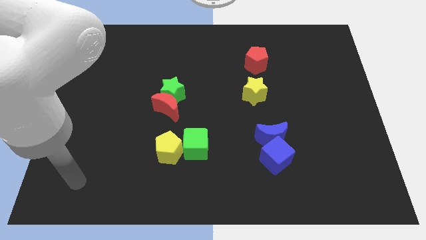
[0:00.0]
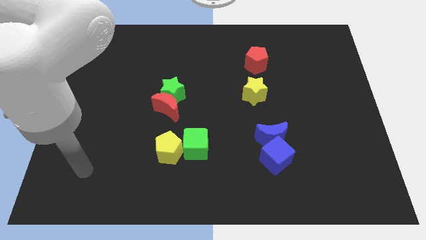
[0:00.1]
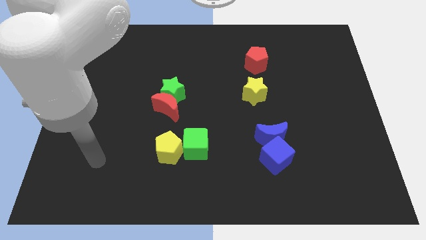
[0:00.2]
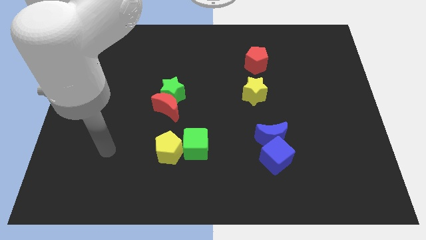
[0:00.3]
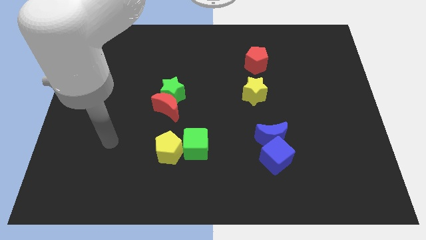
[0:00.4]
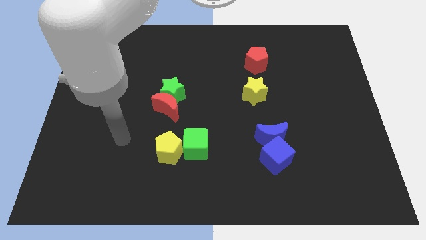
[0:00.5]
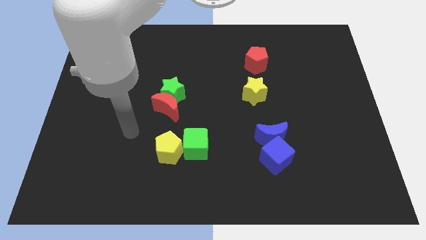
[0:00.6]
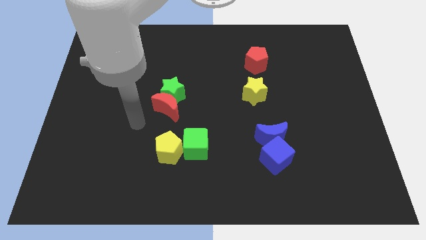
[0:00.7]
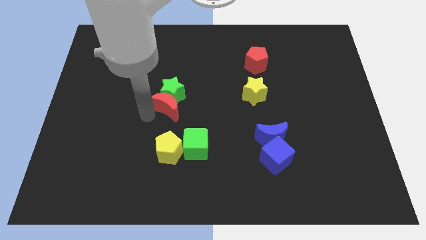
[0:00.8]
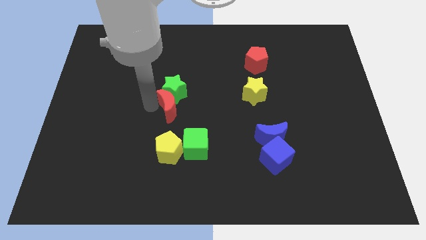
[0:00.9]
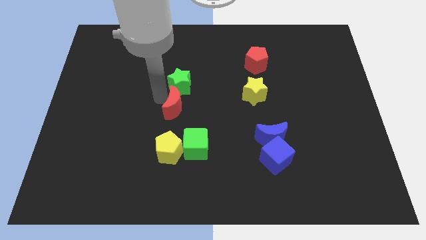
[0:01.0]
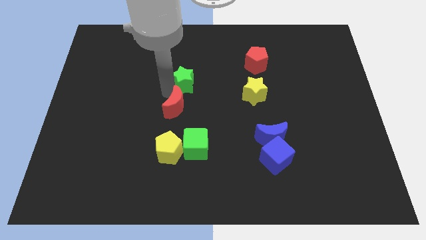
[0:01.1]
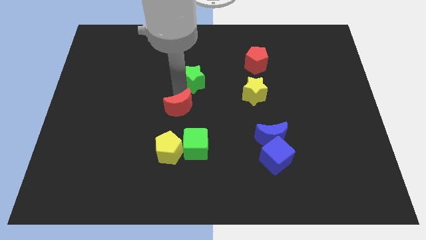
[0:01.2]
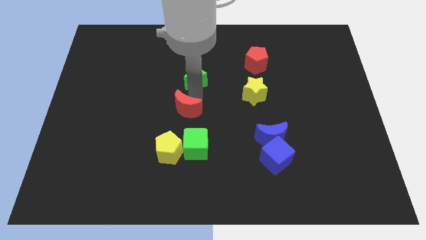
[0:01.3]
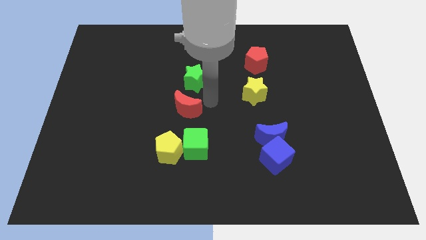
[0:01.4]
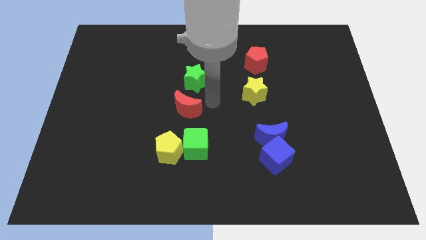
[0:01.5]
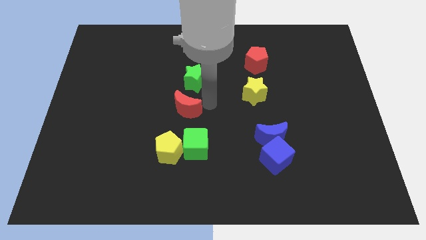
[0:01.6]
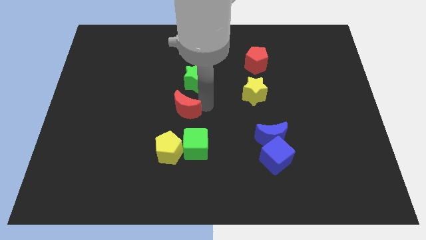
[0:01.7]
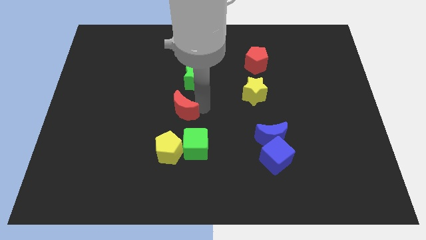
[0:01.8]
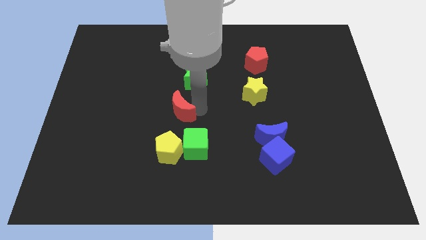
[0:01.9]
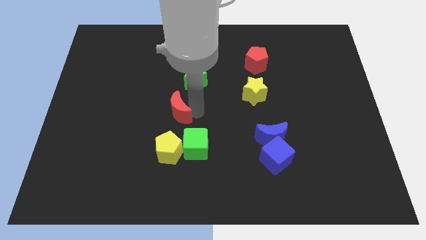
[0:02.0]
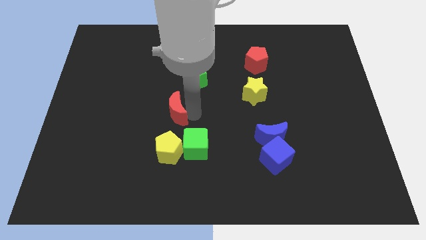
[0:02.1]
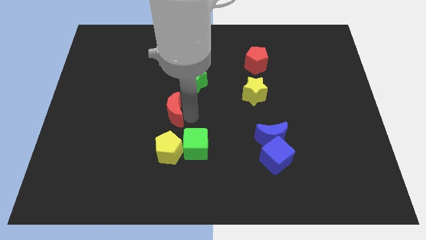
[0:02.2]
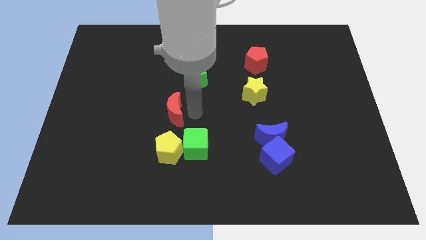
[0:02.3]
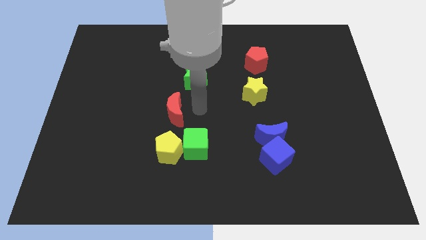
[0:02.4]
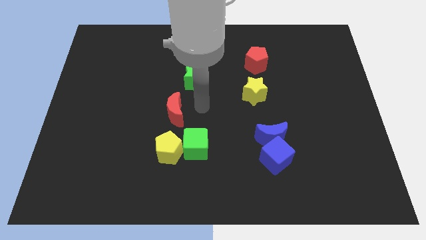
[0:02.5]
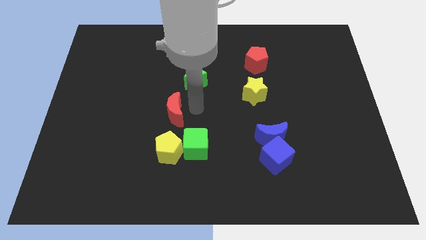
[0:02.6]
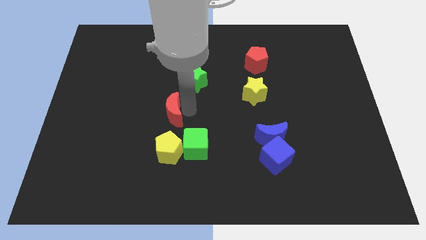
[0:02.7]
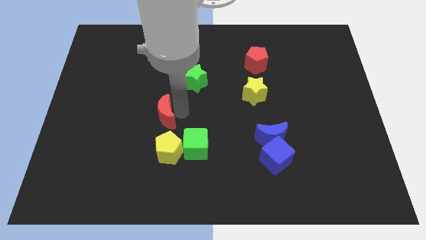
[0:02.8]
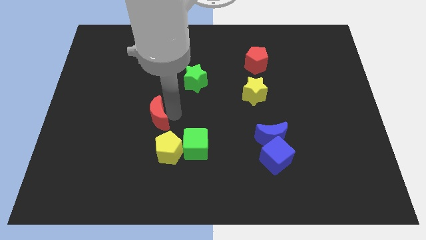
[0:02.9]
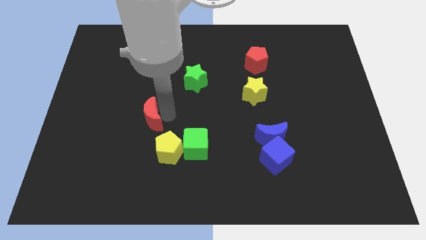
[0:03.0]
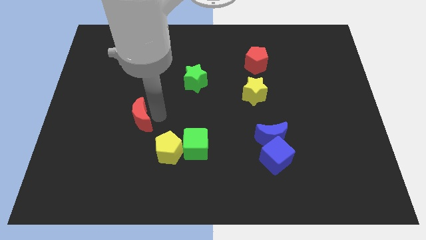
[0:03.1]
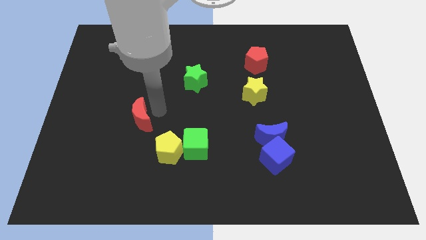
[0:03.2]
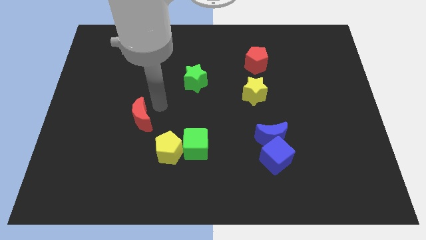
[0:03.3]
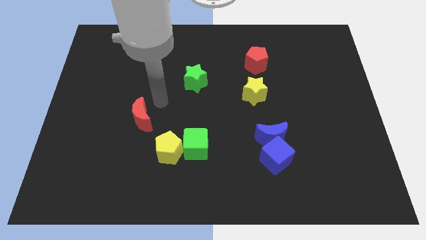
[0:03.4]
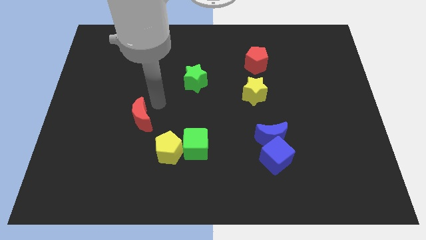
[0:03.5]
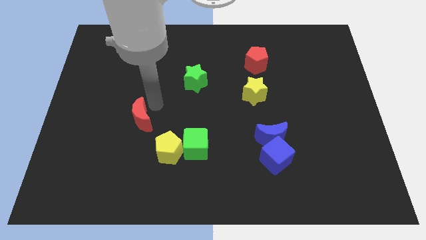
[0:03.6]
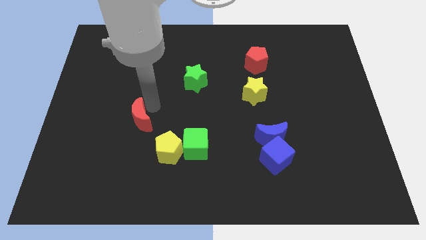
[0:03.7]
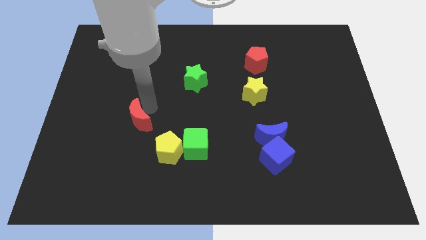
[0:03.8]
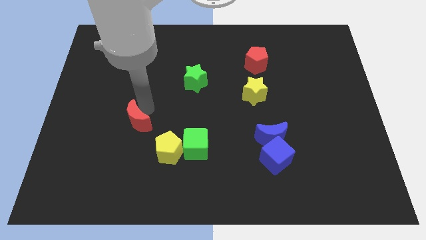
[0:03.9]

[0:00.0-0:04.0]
push the red moon down and to the left diagonally somewhat

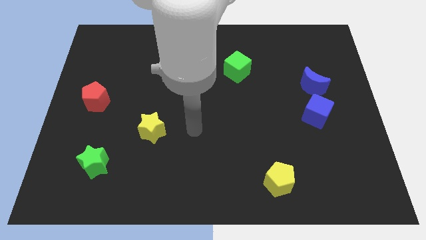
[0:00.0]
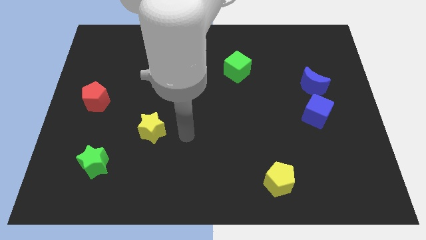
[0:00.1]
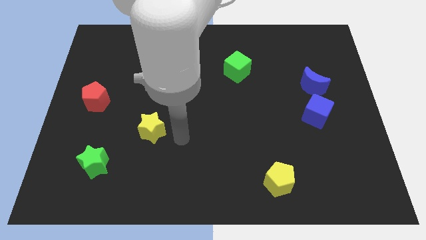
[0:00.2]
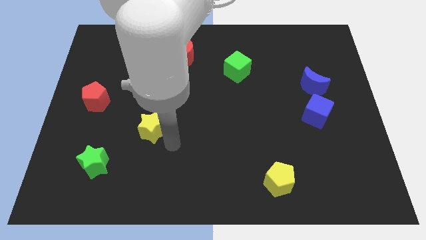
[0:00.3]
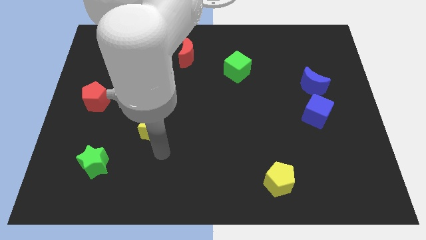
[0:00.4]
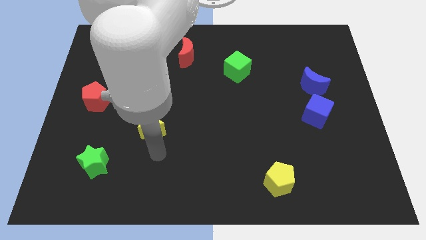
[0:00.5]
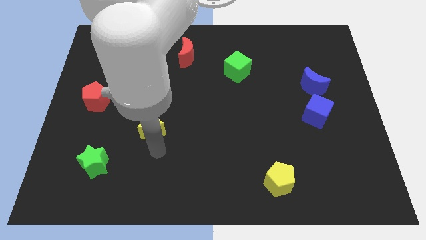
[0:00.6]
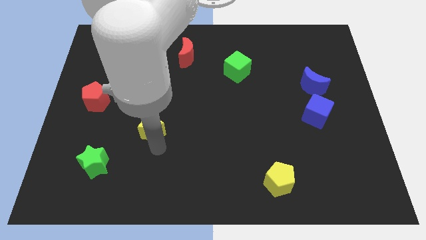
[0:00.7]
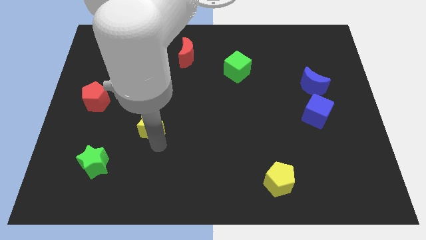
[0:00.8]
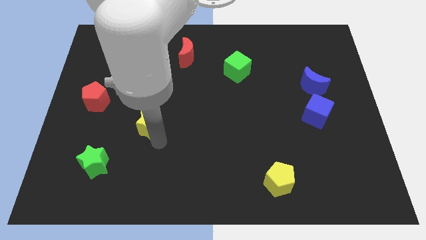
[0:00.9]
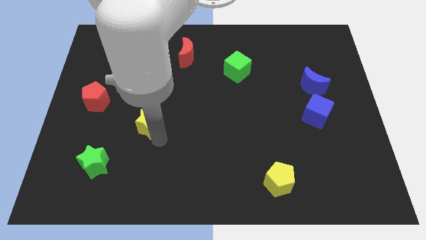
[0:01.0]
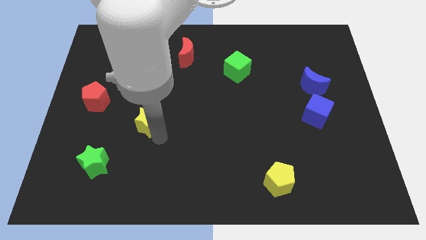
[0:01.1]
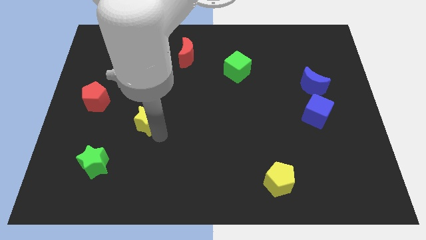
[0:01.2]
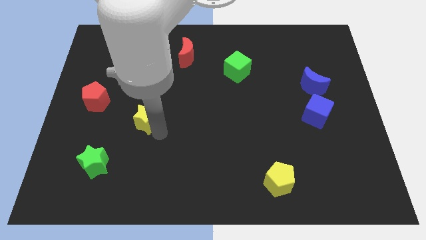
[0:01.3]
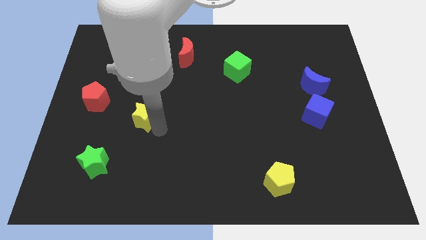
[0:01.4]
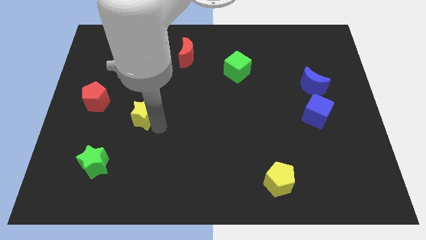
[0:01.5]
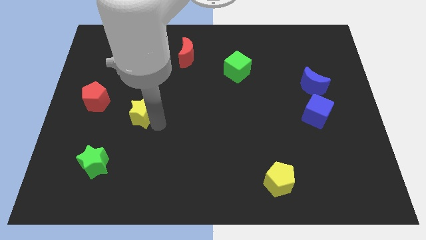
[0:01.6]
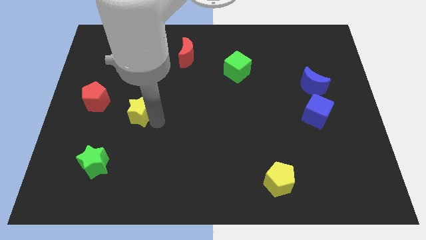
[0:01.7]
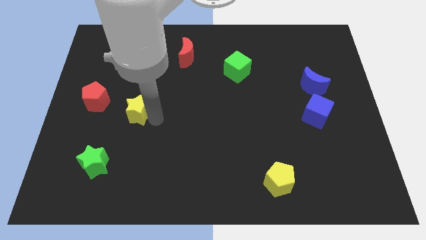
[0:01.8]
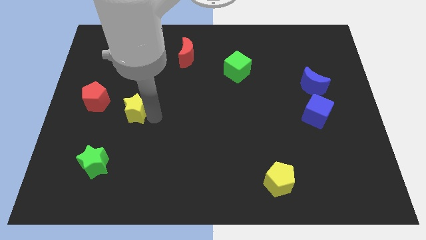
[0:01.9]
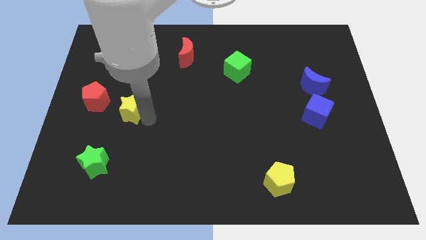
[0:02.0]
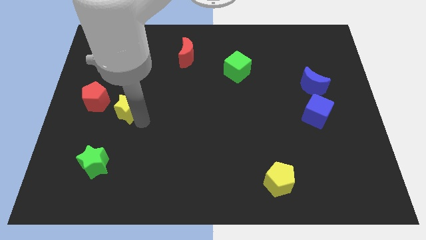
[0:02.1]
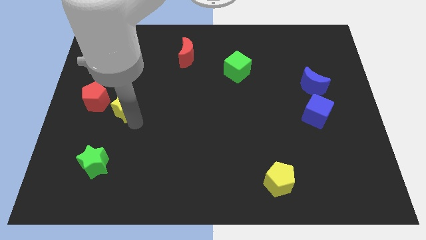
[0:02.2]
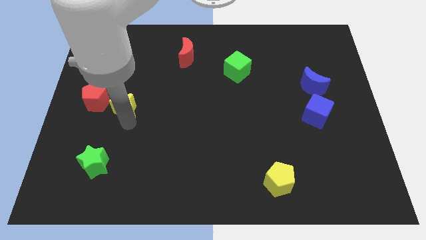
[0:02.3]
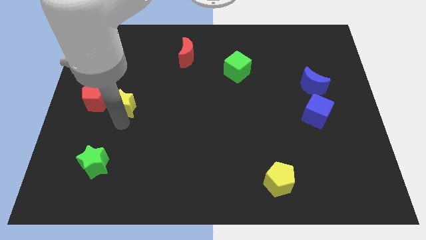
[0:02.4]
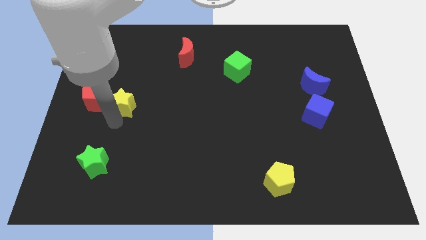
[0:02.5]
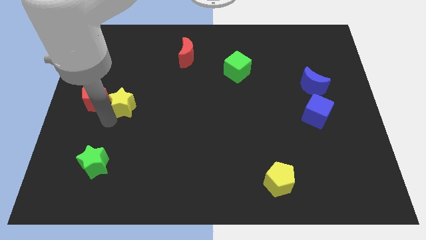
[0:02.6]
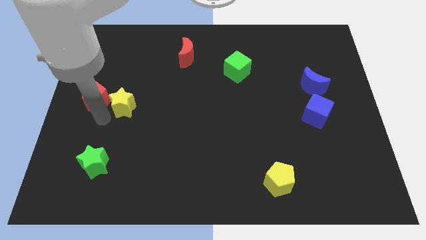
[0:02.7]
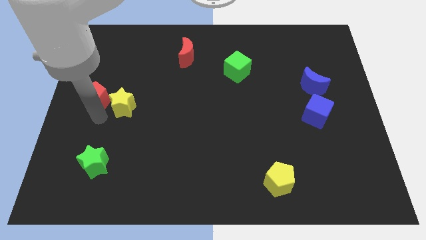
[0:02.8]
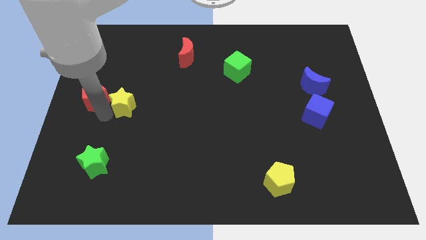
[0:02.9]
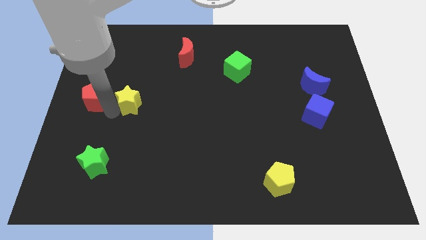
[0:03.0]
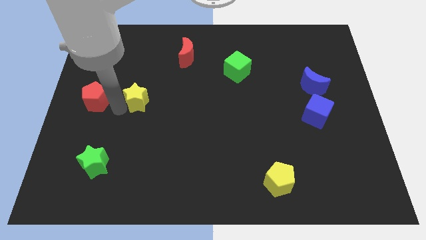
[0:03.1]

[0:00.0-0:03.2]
push the yellow star a bit upwards

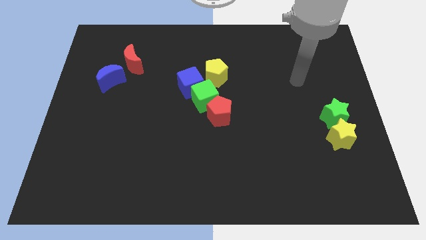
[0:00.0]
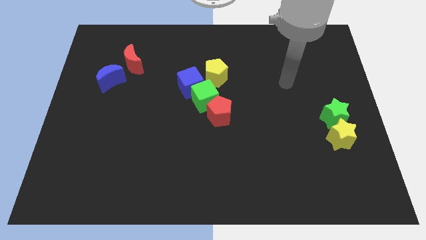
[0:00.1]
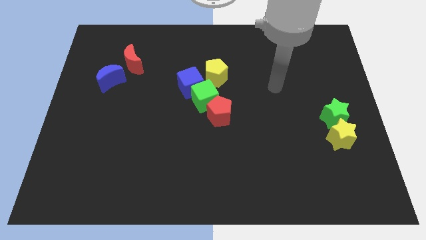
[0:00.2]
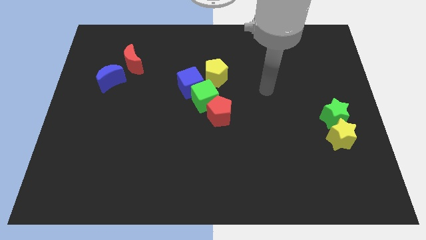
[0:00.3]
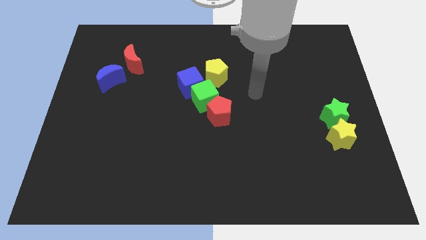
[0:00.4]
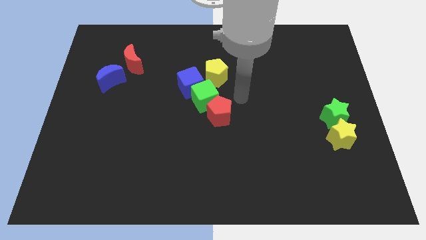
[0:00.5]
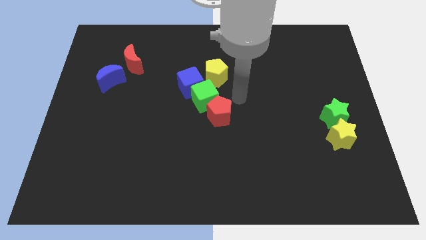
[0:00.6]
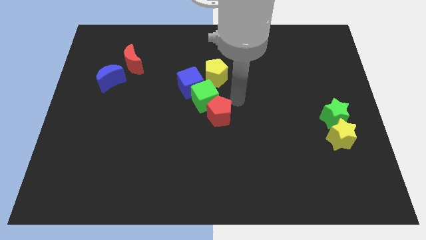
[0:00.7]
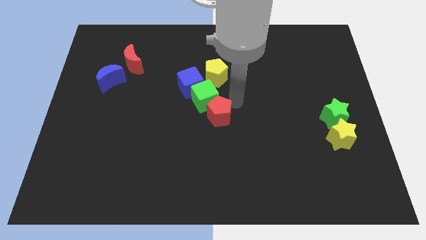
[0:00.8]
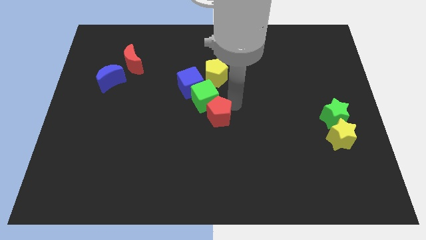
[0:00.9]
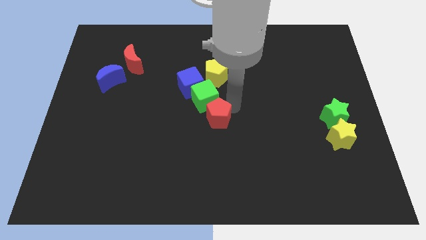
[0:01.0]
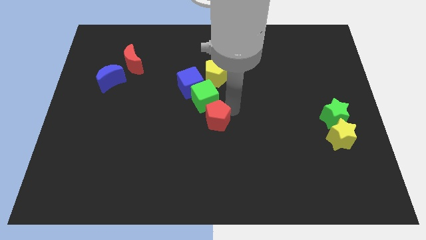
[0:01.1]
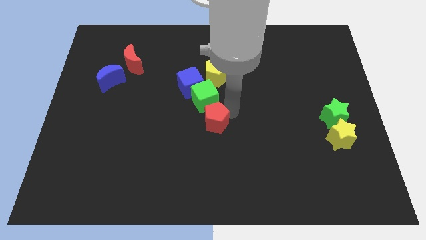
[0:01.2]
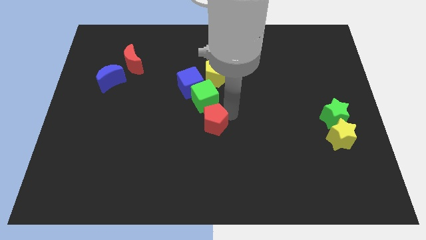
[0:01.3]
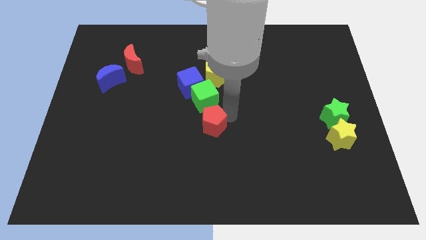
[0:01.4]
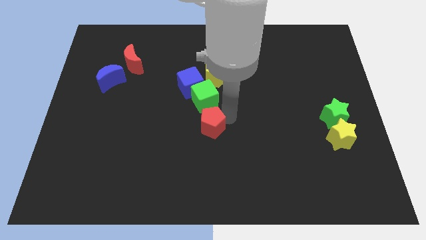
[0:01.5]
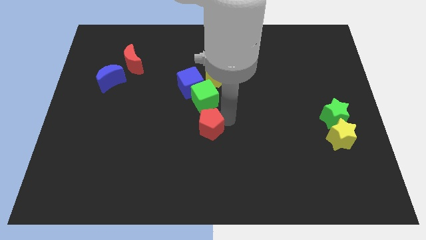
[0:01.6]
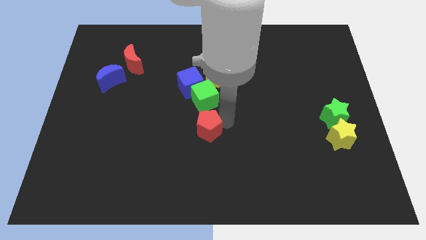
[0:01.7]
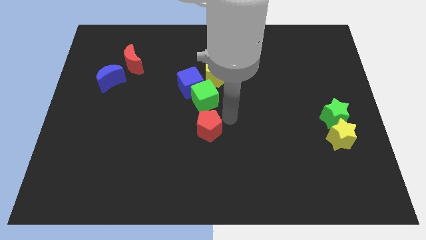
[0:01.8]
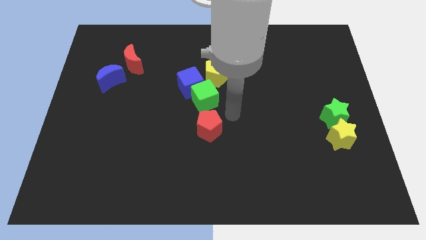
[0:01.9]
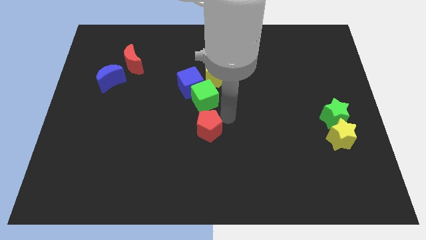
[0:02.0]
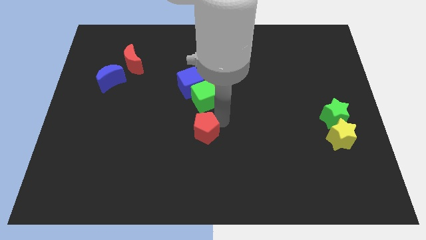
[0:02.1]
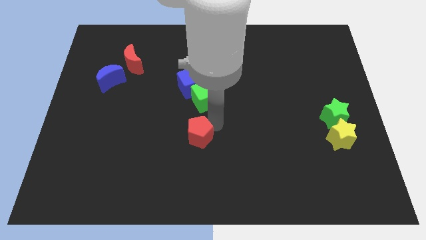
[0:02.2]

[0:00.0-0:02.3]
slide the red pentagon slightly diagonally down and to the left
